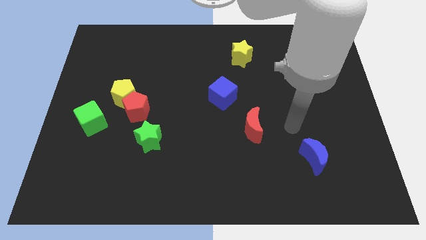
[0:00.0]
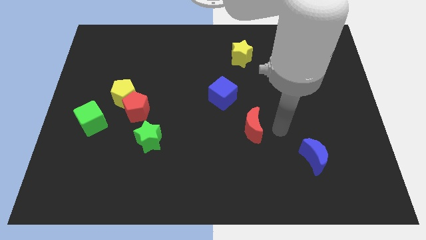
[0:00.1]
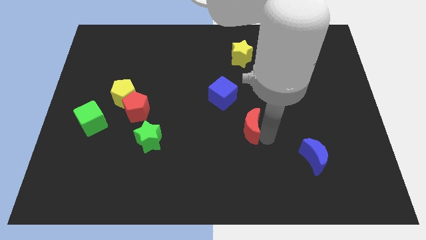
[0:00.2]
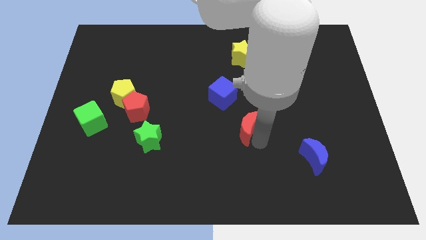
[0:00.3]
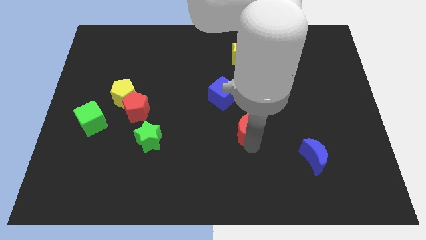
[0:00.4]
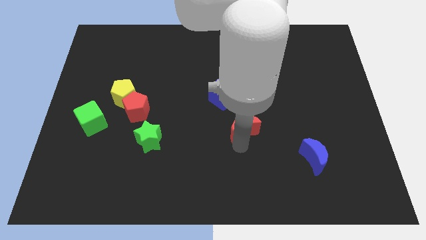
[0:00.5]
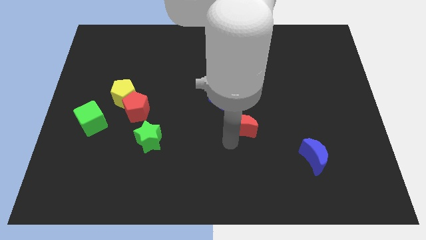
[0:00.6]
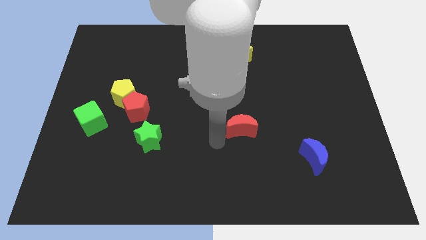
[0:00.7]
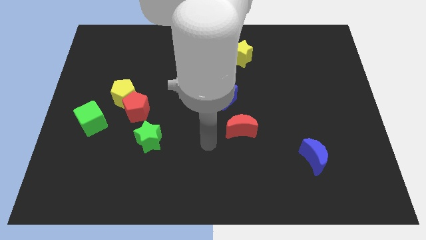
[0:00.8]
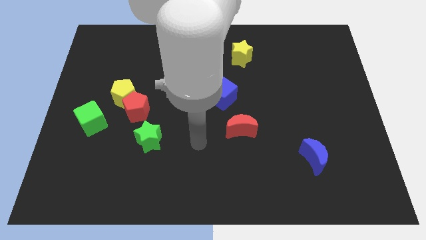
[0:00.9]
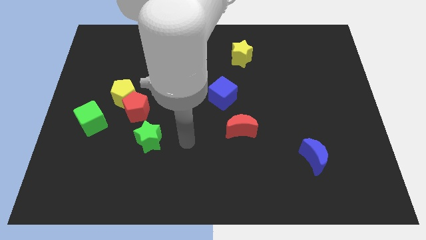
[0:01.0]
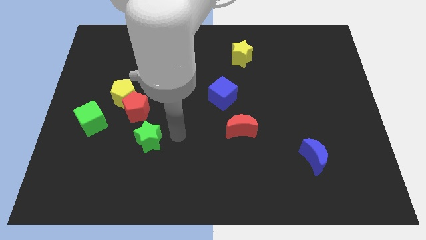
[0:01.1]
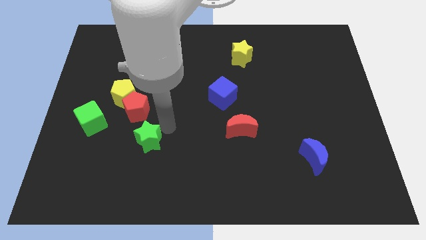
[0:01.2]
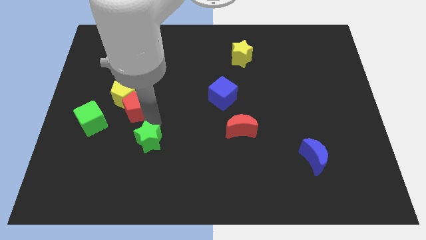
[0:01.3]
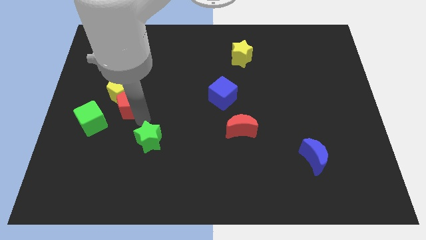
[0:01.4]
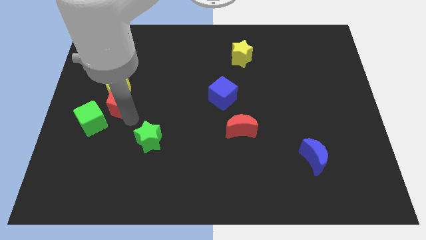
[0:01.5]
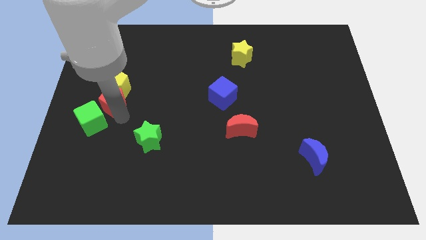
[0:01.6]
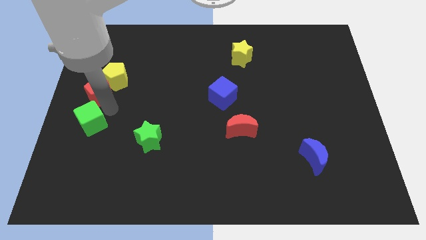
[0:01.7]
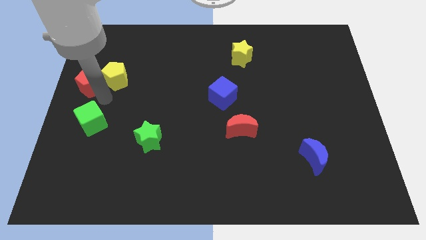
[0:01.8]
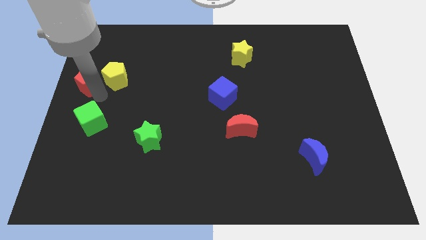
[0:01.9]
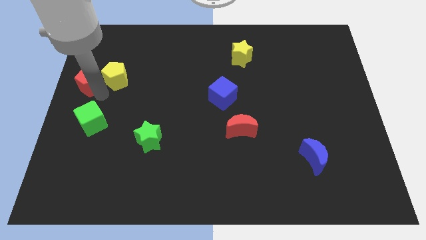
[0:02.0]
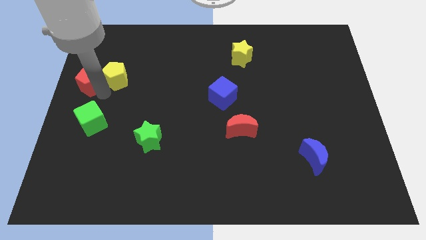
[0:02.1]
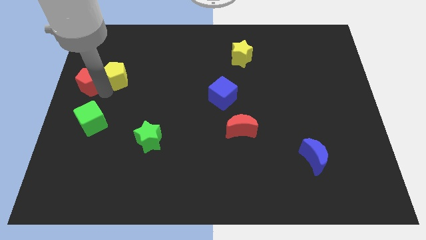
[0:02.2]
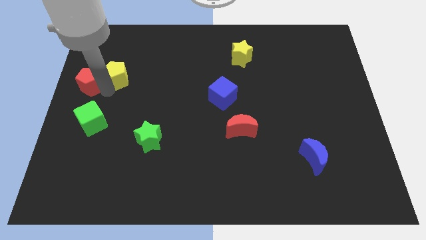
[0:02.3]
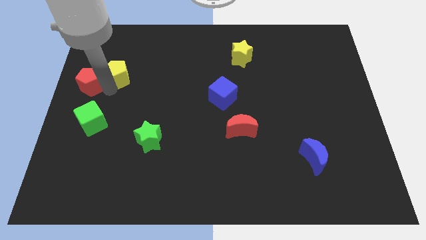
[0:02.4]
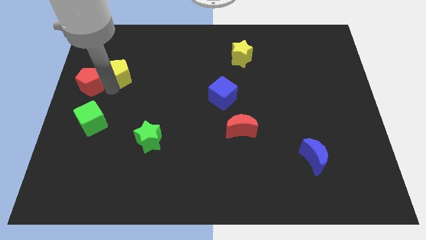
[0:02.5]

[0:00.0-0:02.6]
separate the yellow pentagon from the red pentagon and green cube

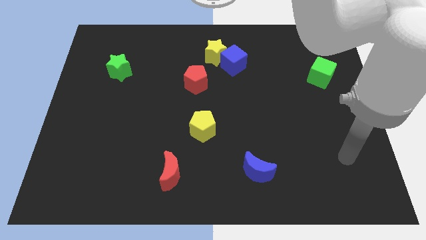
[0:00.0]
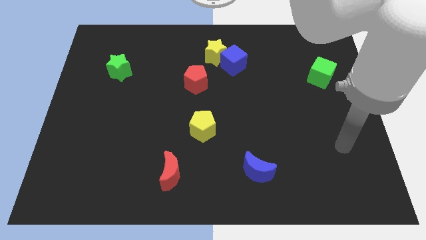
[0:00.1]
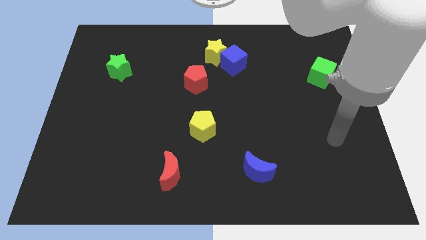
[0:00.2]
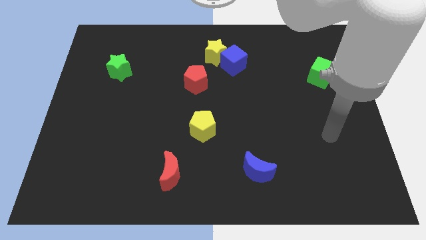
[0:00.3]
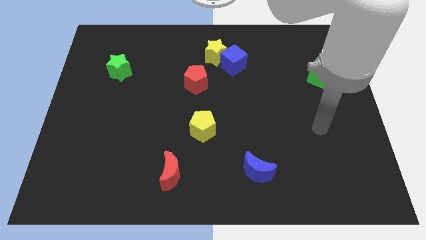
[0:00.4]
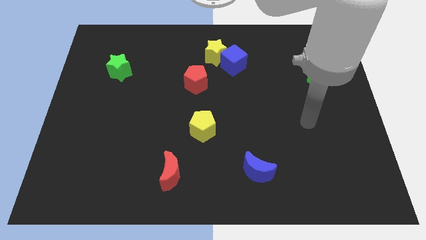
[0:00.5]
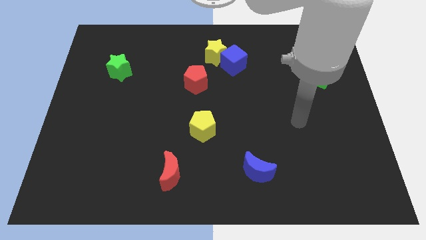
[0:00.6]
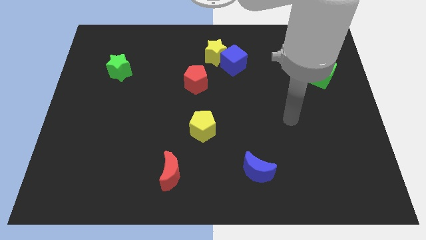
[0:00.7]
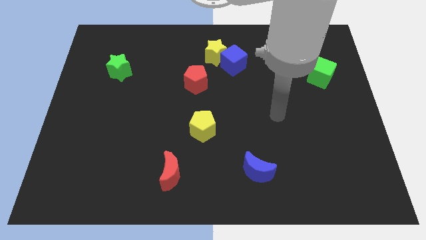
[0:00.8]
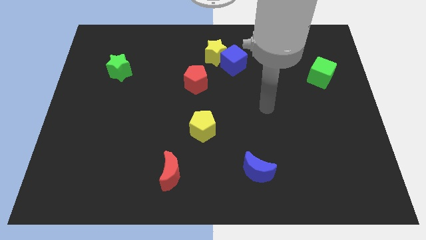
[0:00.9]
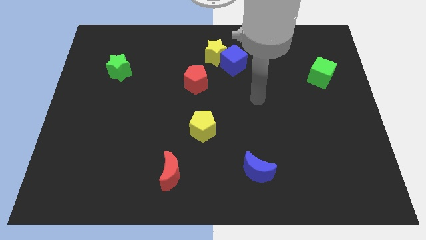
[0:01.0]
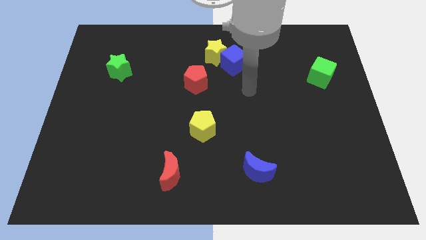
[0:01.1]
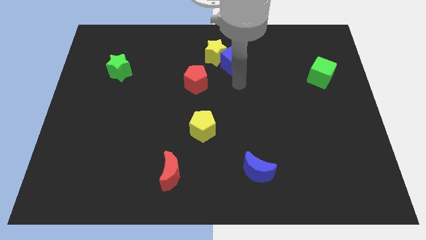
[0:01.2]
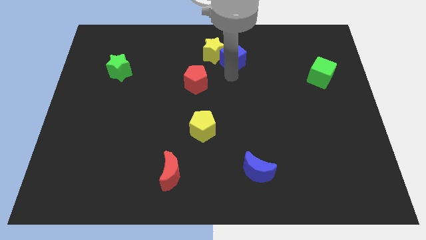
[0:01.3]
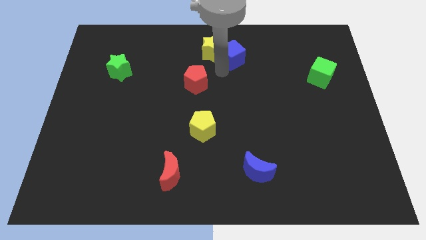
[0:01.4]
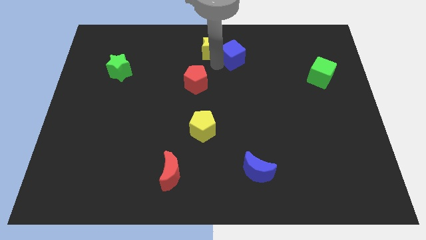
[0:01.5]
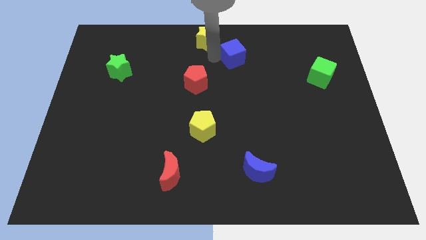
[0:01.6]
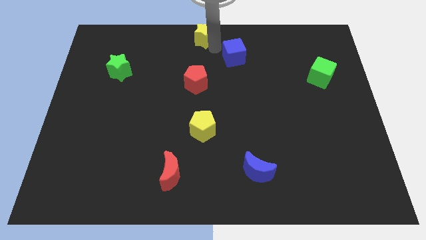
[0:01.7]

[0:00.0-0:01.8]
move the blue cube away from the yellow star

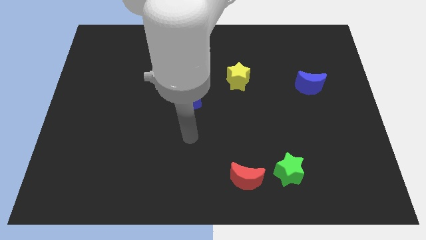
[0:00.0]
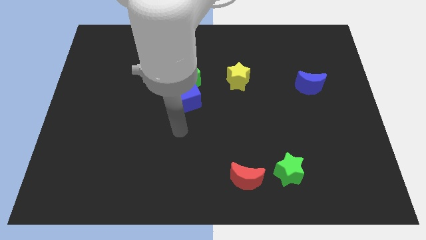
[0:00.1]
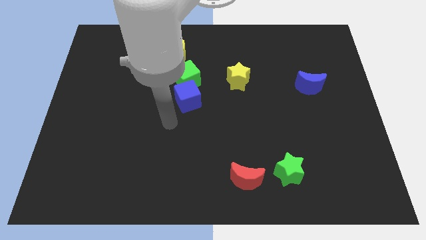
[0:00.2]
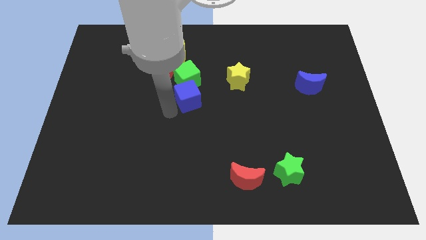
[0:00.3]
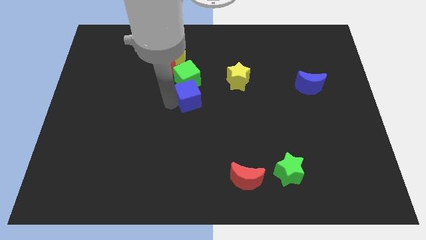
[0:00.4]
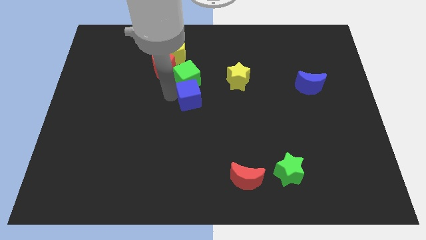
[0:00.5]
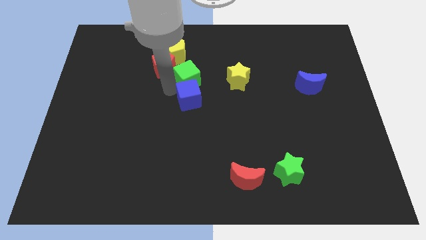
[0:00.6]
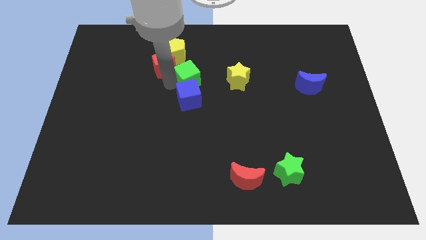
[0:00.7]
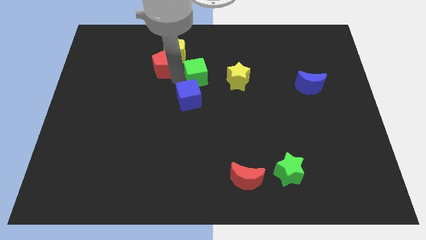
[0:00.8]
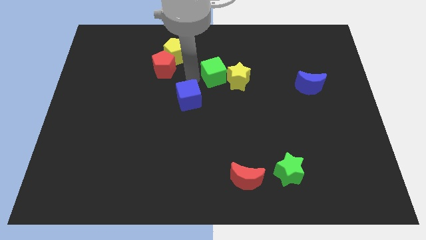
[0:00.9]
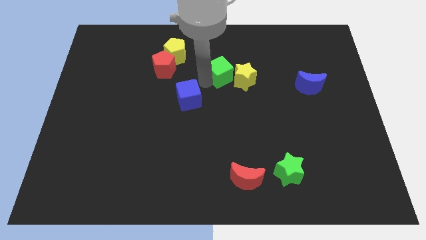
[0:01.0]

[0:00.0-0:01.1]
separate the blue cube from the green cube

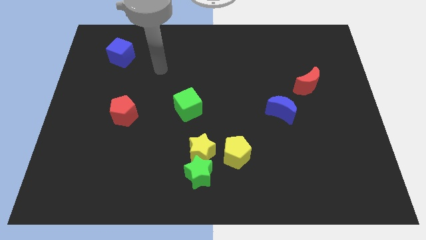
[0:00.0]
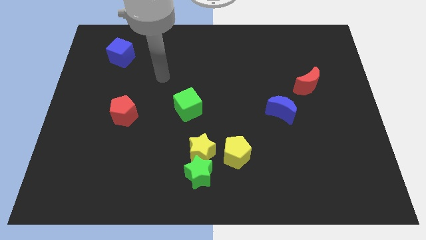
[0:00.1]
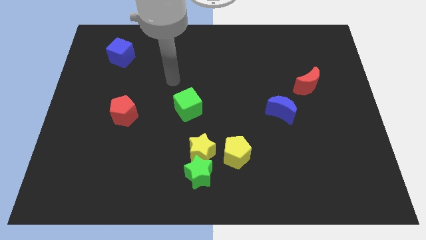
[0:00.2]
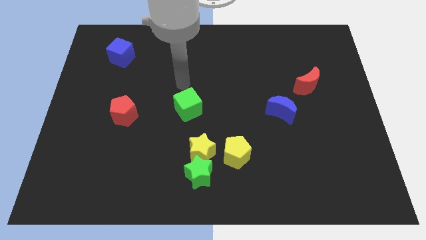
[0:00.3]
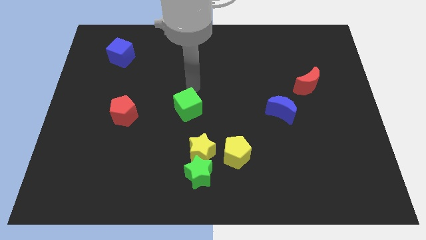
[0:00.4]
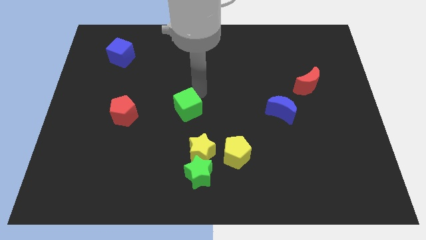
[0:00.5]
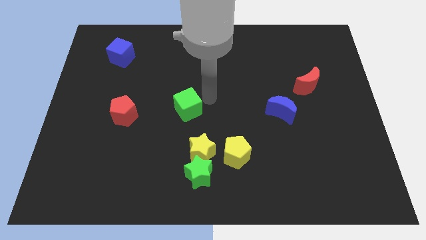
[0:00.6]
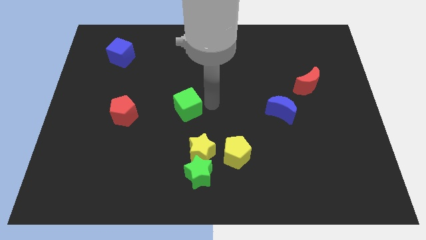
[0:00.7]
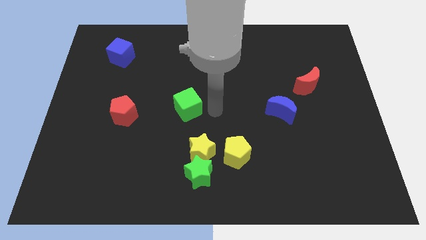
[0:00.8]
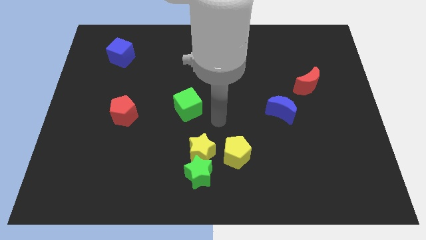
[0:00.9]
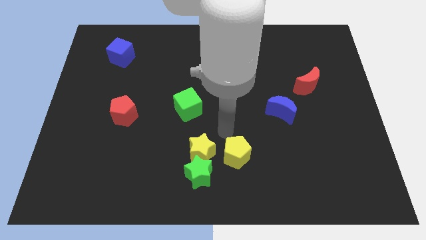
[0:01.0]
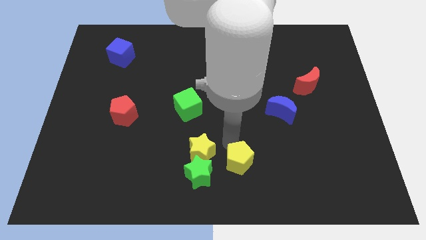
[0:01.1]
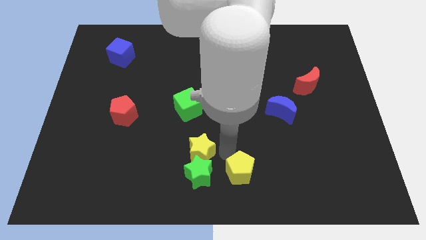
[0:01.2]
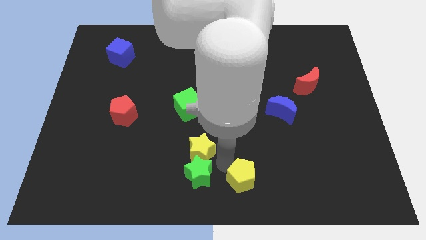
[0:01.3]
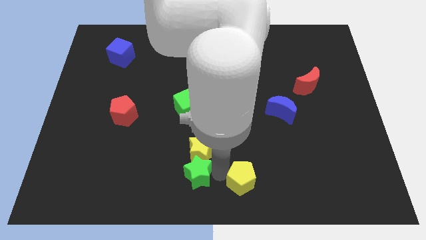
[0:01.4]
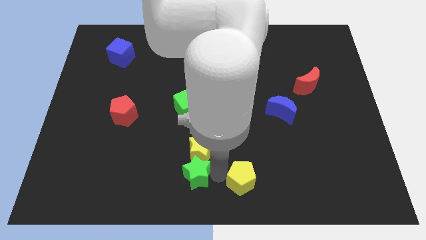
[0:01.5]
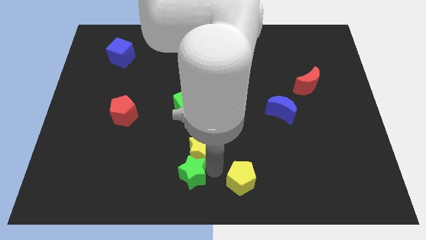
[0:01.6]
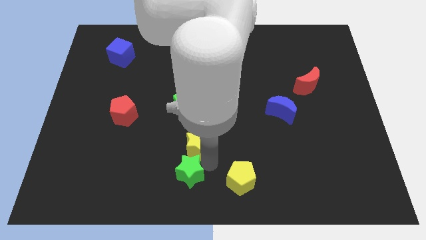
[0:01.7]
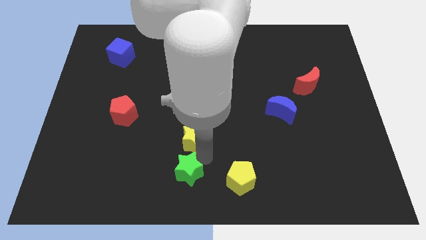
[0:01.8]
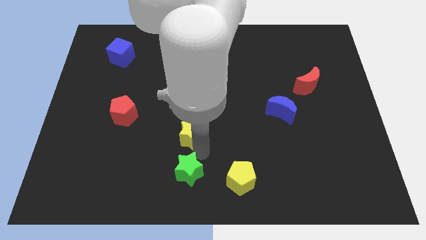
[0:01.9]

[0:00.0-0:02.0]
move the yellow star away from the green star and yellow pentagon

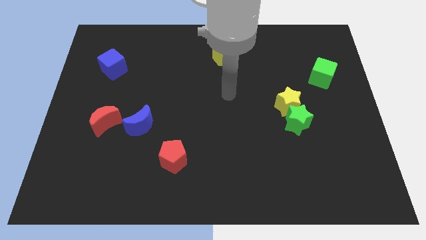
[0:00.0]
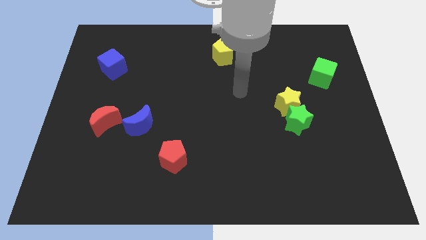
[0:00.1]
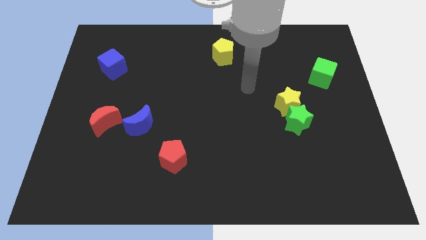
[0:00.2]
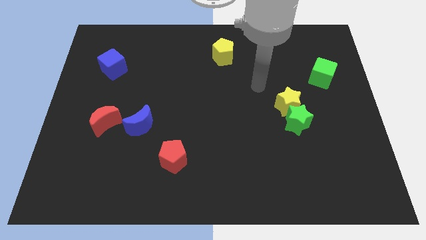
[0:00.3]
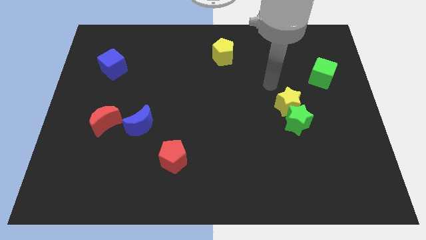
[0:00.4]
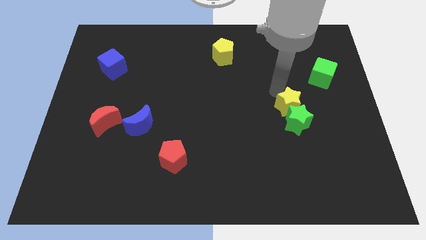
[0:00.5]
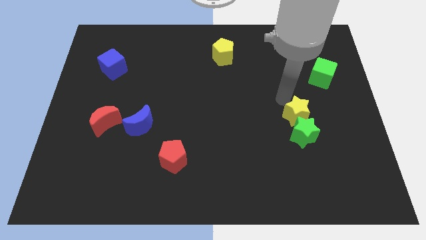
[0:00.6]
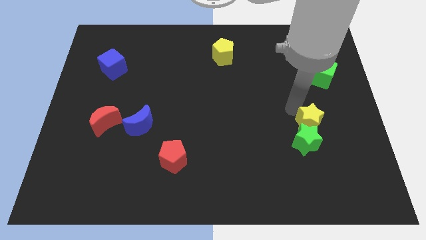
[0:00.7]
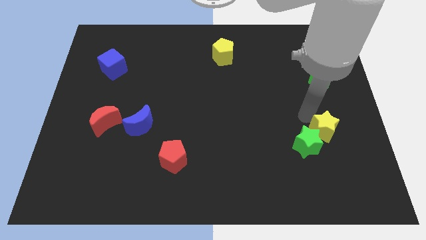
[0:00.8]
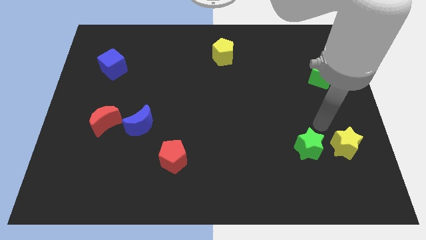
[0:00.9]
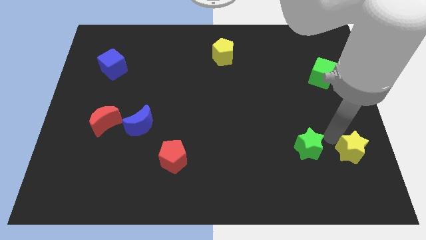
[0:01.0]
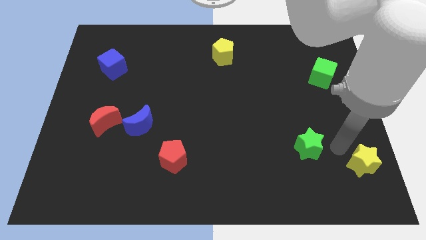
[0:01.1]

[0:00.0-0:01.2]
separate the green star from the yellow star

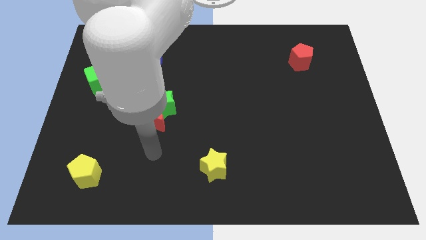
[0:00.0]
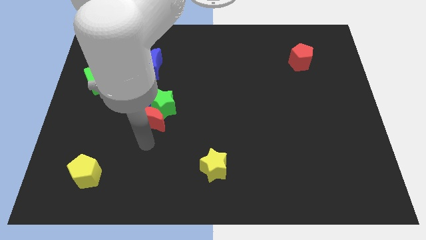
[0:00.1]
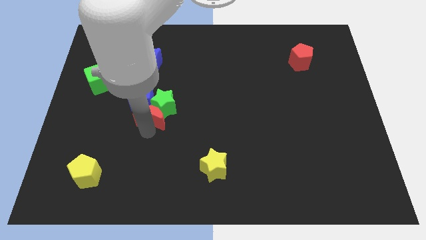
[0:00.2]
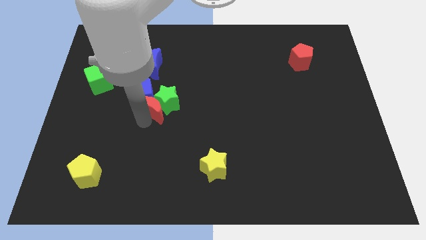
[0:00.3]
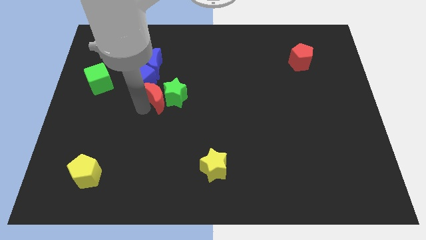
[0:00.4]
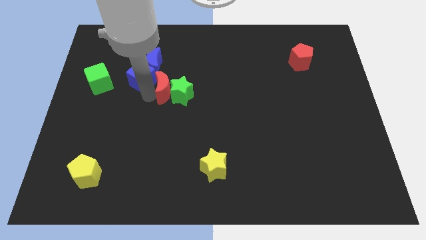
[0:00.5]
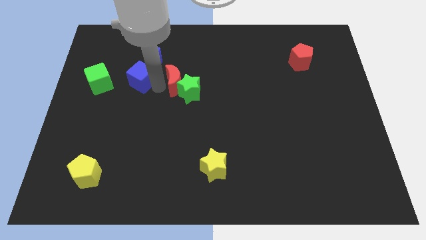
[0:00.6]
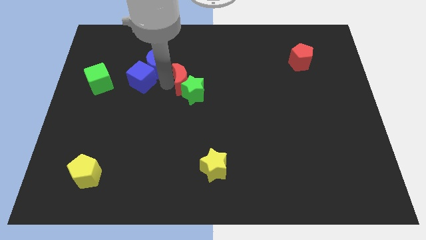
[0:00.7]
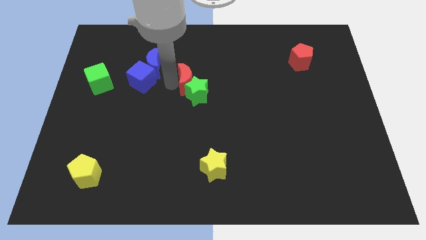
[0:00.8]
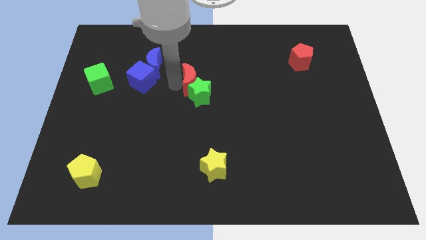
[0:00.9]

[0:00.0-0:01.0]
pull the green star apart from the red moon and blue cube
